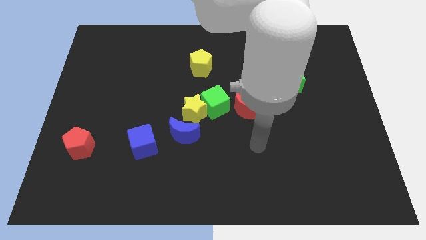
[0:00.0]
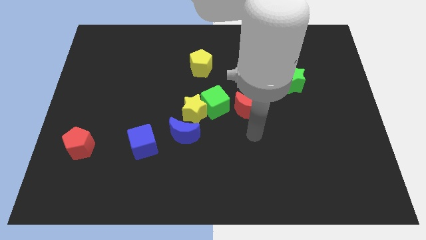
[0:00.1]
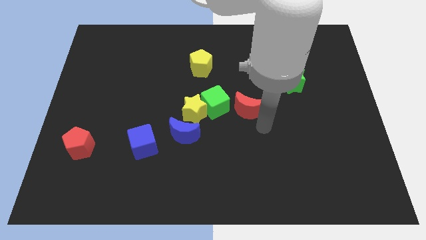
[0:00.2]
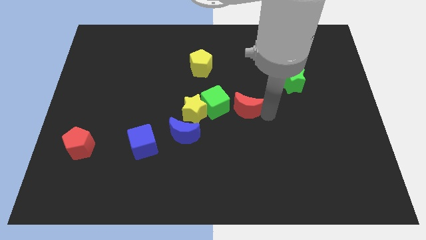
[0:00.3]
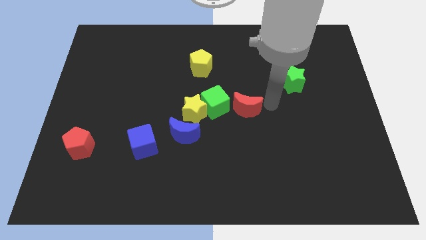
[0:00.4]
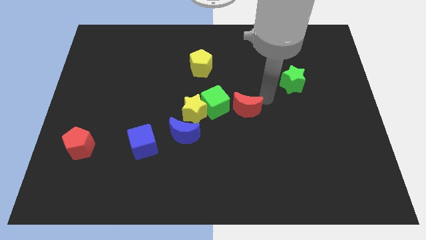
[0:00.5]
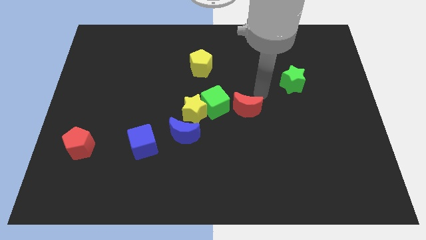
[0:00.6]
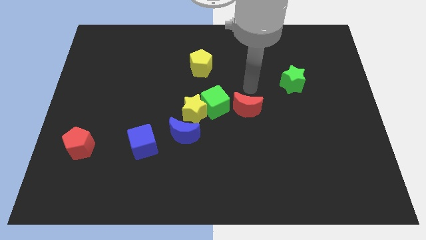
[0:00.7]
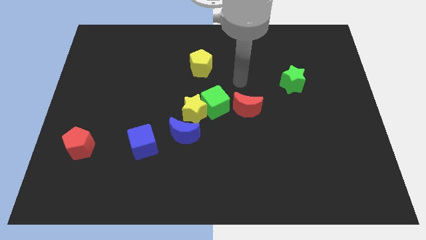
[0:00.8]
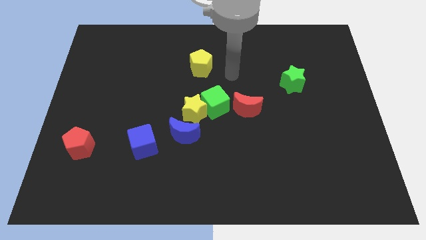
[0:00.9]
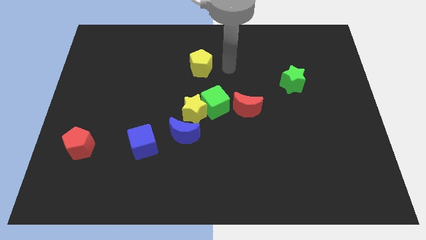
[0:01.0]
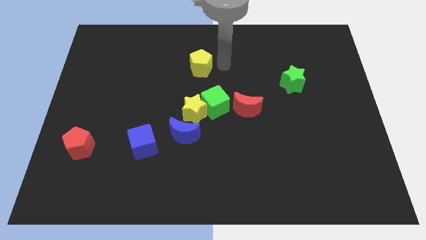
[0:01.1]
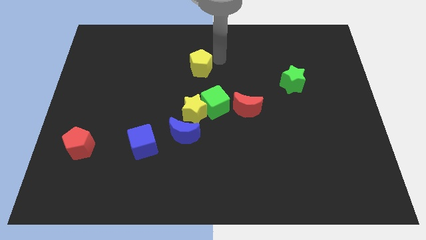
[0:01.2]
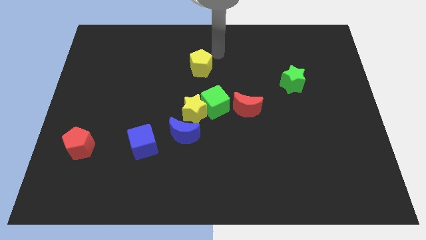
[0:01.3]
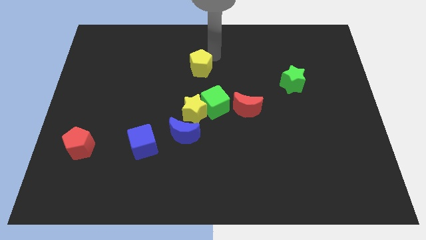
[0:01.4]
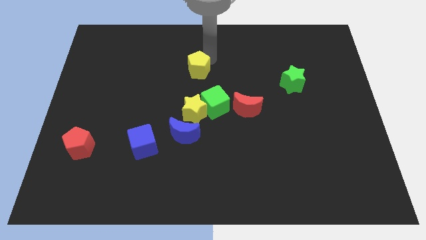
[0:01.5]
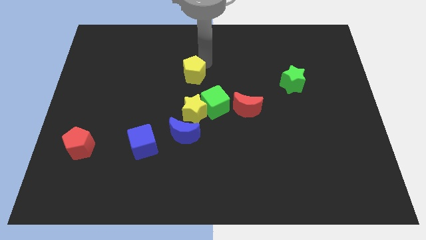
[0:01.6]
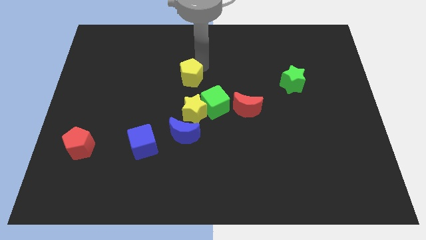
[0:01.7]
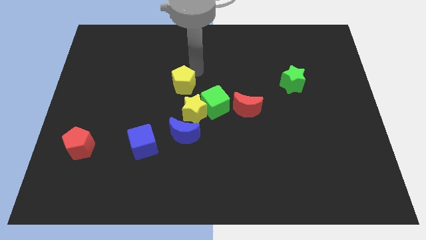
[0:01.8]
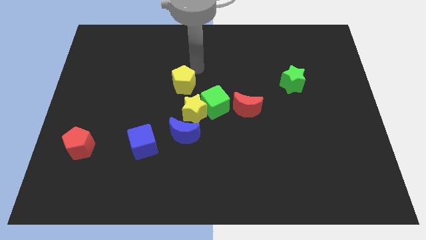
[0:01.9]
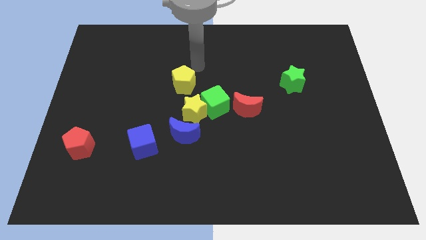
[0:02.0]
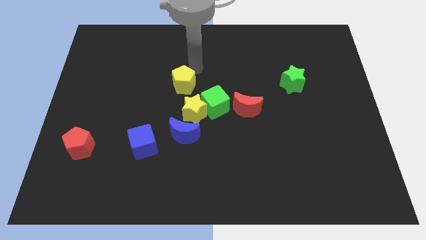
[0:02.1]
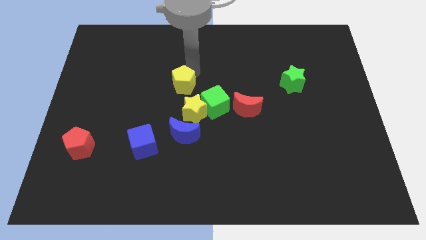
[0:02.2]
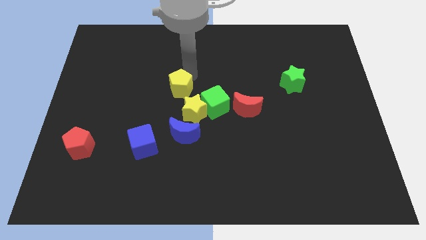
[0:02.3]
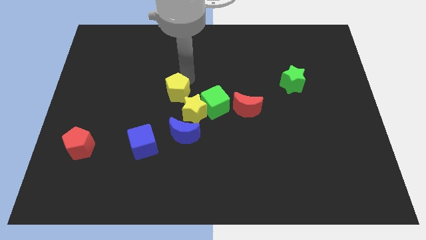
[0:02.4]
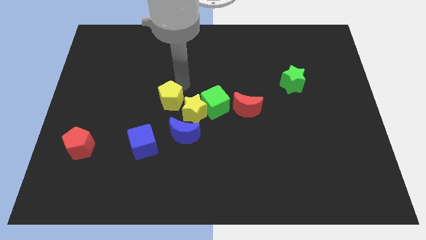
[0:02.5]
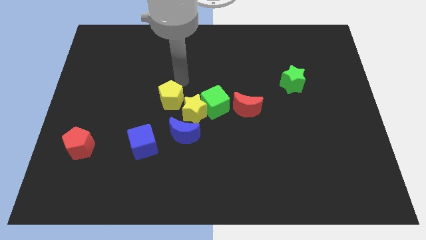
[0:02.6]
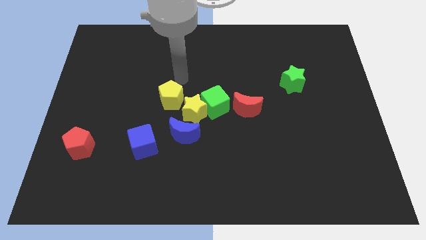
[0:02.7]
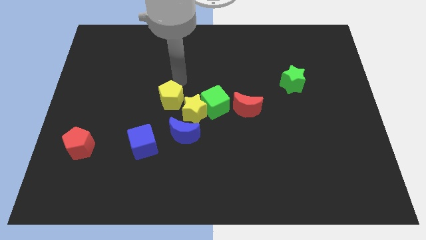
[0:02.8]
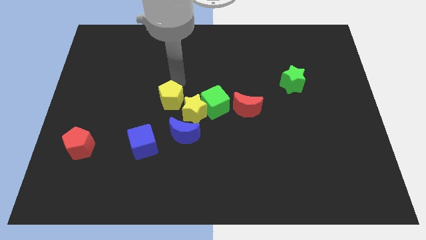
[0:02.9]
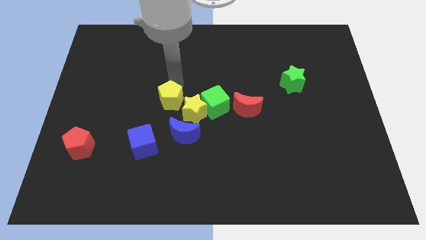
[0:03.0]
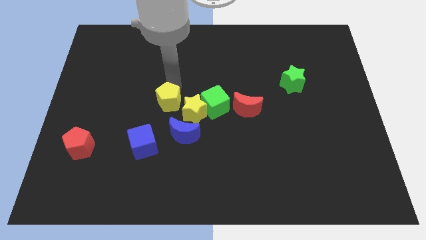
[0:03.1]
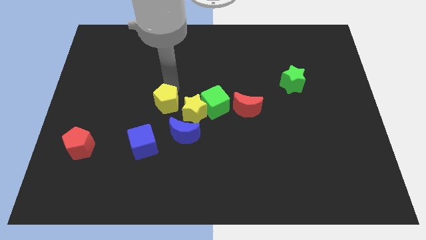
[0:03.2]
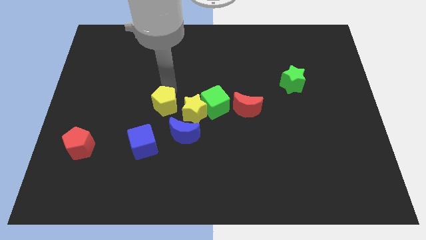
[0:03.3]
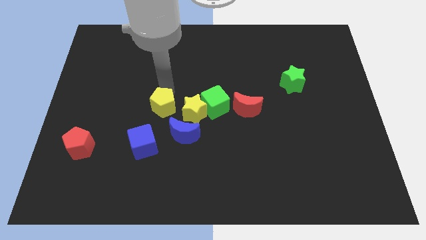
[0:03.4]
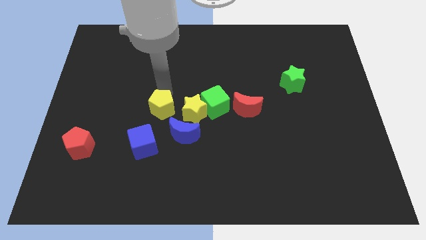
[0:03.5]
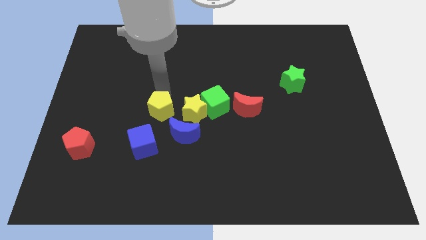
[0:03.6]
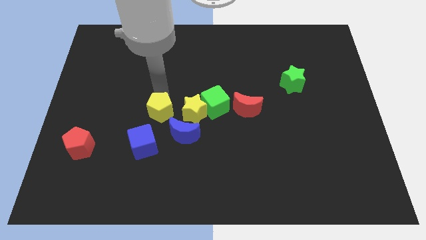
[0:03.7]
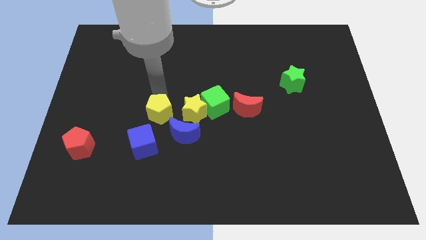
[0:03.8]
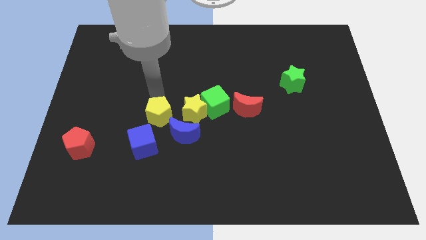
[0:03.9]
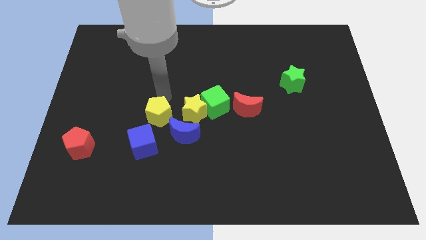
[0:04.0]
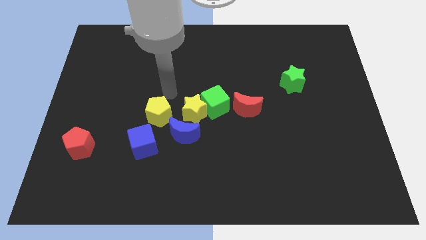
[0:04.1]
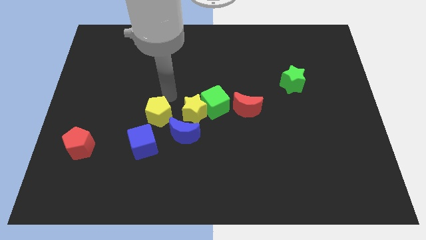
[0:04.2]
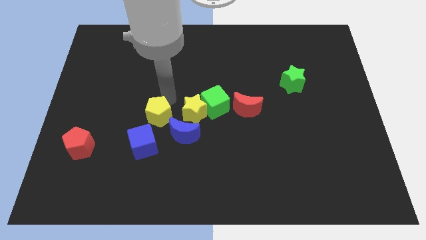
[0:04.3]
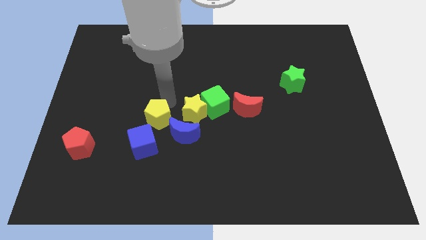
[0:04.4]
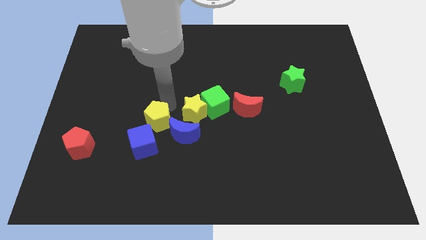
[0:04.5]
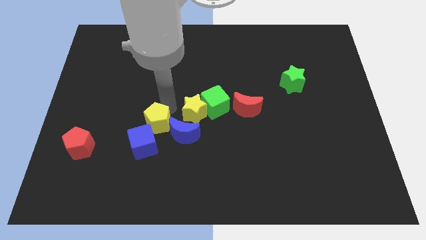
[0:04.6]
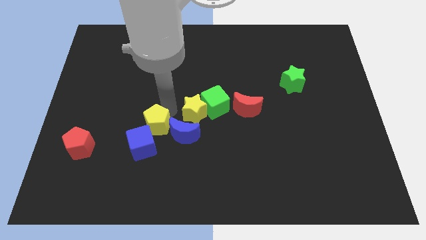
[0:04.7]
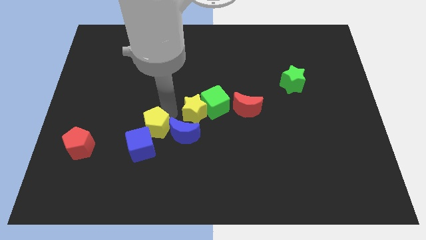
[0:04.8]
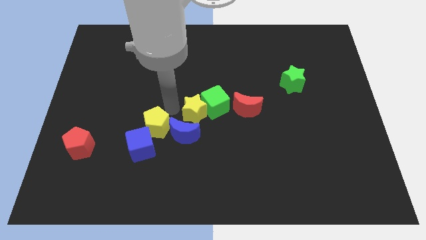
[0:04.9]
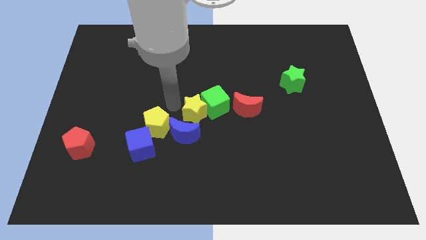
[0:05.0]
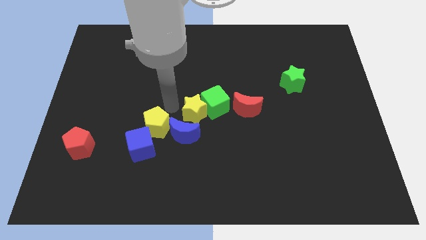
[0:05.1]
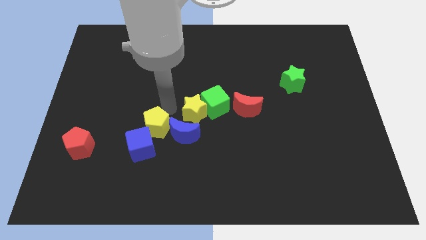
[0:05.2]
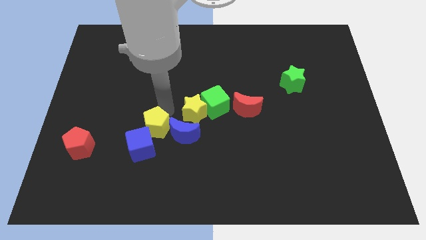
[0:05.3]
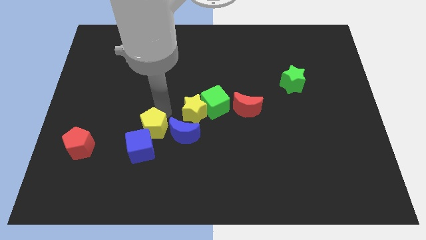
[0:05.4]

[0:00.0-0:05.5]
slide the yellow pentagon towards the blue cube

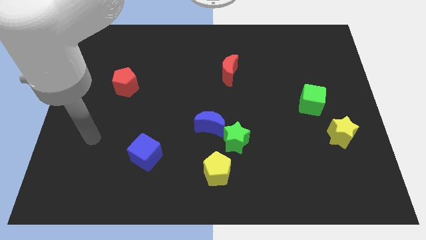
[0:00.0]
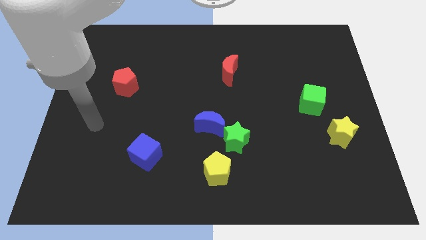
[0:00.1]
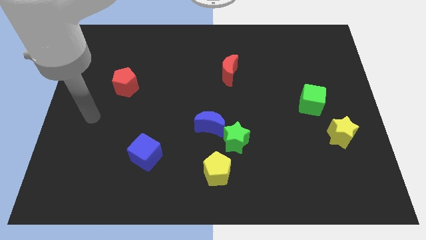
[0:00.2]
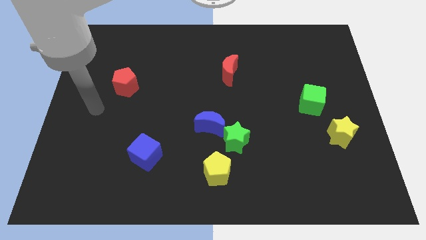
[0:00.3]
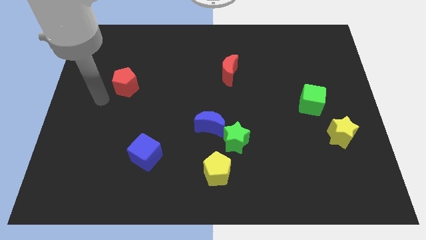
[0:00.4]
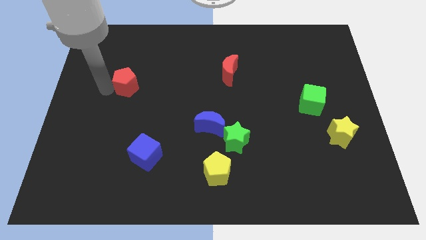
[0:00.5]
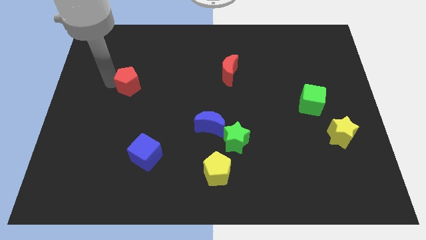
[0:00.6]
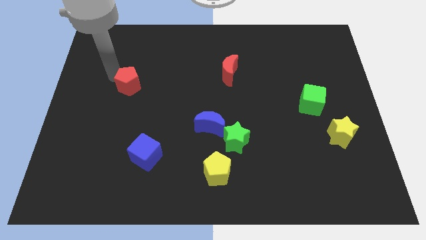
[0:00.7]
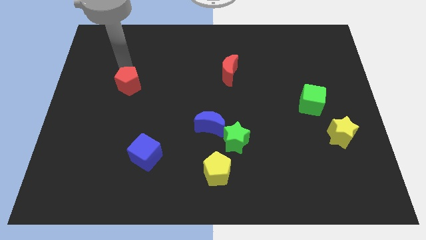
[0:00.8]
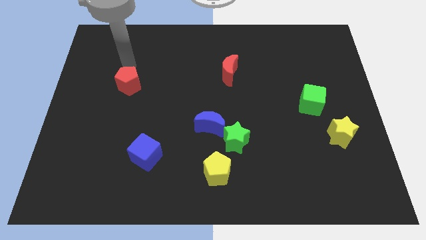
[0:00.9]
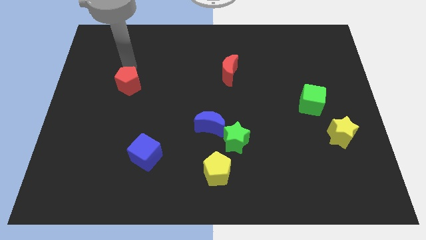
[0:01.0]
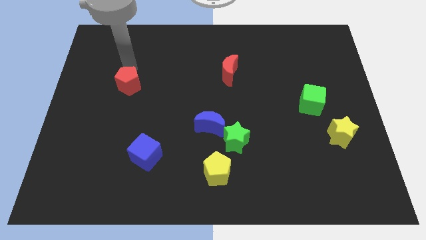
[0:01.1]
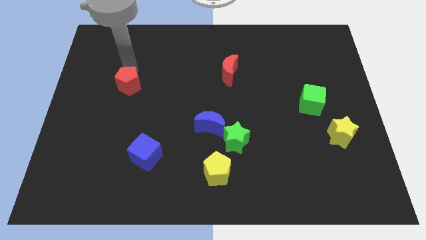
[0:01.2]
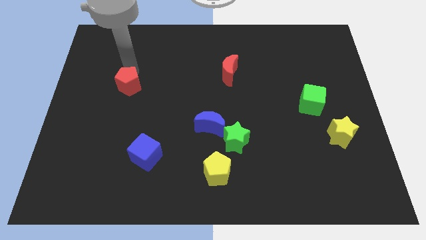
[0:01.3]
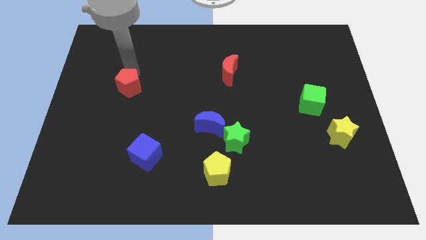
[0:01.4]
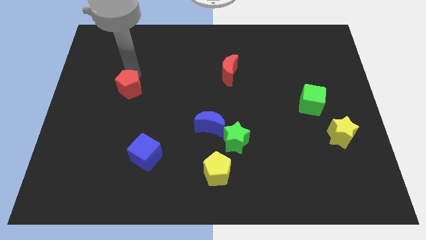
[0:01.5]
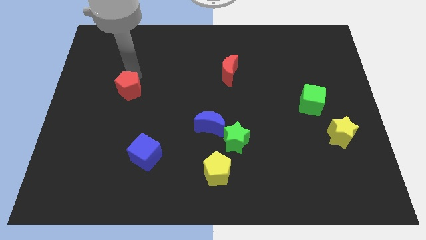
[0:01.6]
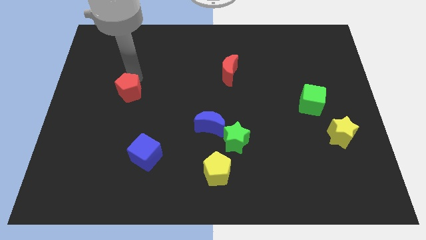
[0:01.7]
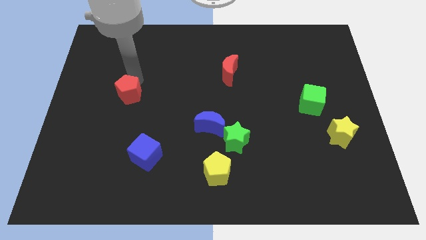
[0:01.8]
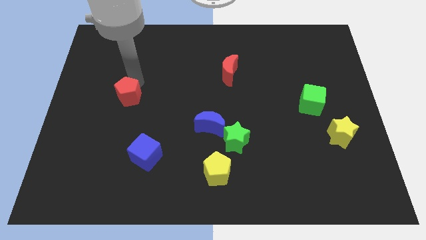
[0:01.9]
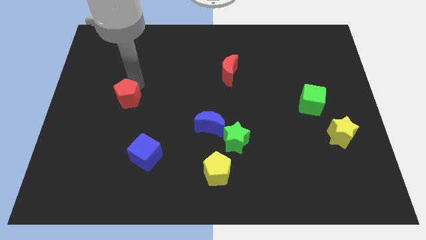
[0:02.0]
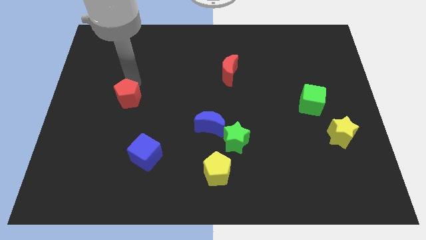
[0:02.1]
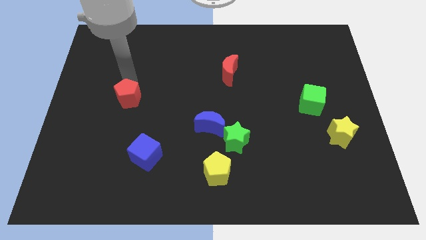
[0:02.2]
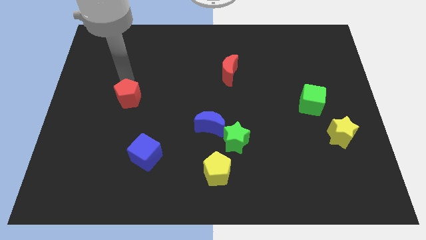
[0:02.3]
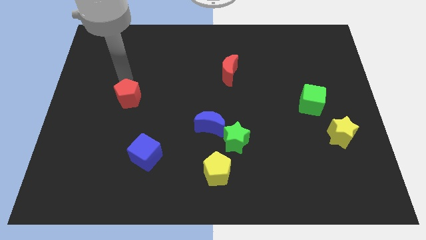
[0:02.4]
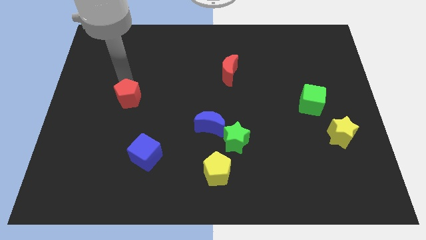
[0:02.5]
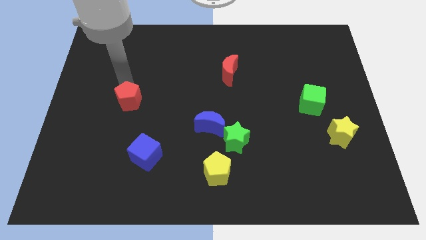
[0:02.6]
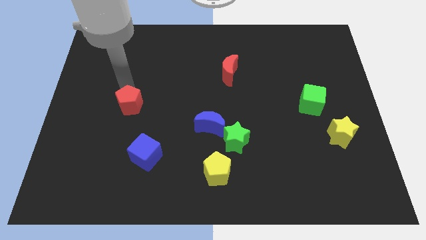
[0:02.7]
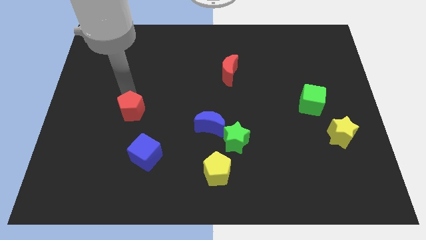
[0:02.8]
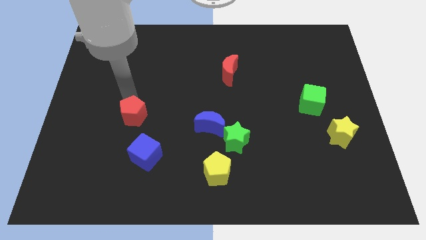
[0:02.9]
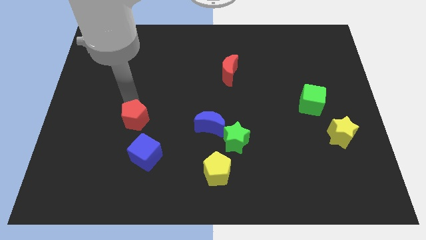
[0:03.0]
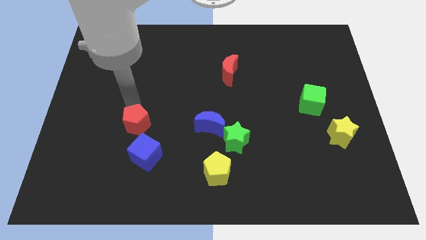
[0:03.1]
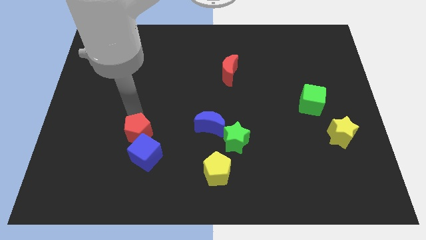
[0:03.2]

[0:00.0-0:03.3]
push the red pentagon close to the blue cube
